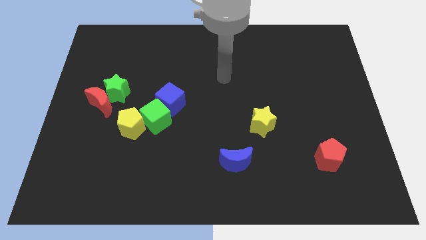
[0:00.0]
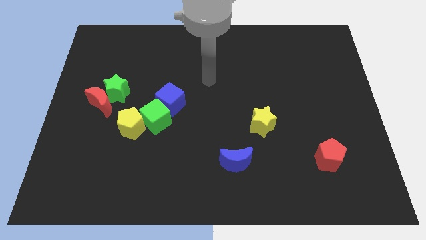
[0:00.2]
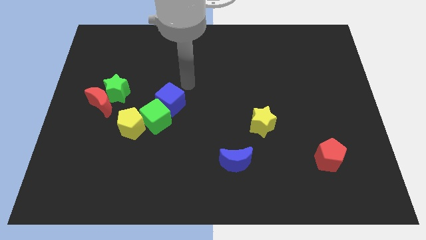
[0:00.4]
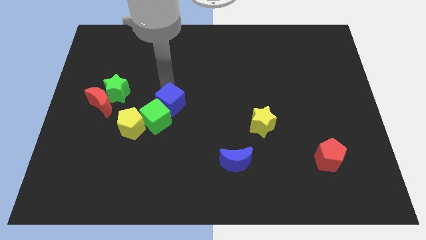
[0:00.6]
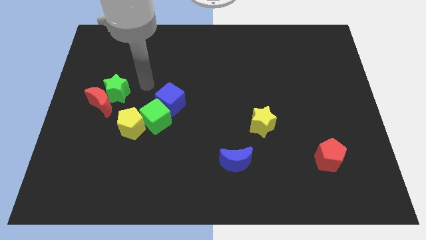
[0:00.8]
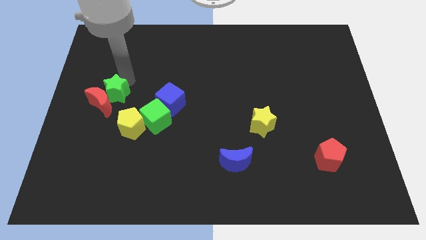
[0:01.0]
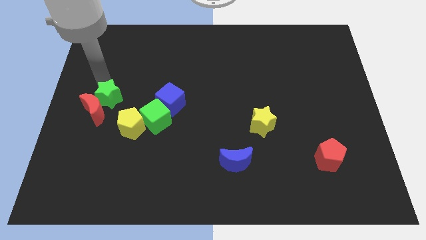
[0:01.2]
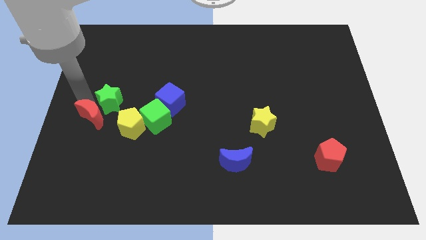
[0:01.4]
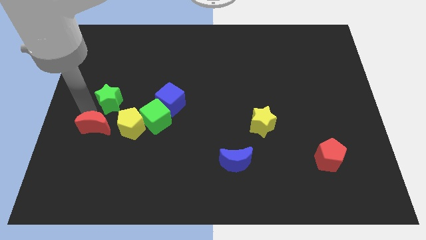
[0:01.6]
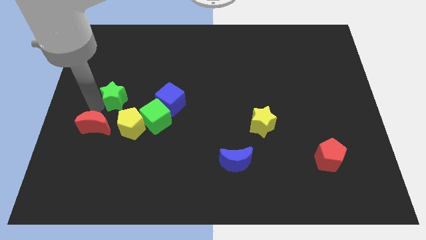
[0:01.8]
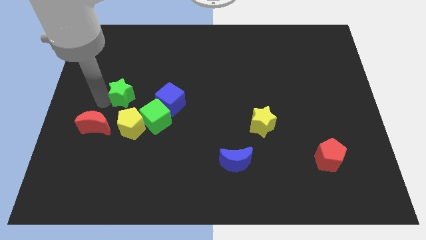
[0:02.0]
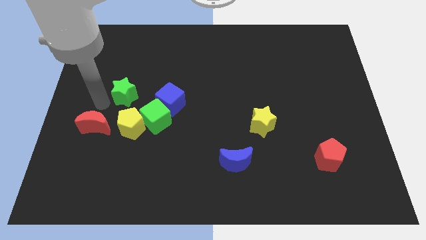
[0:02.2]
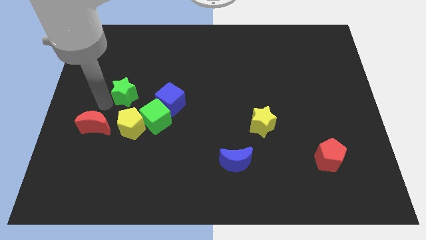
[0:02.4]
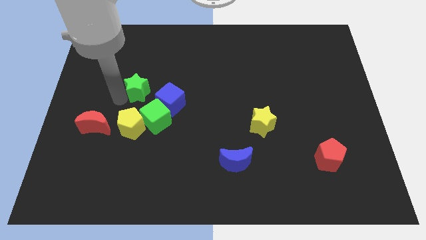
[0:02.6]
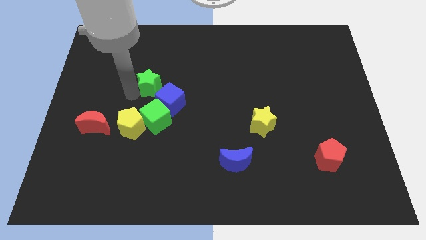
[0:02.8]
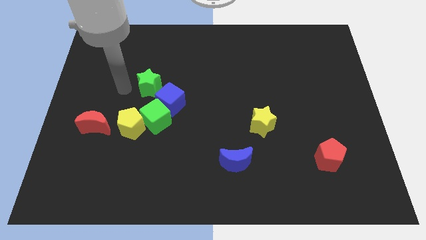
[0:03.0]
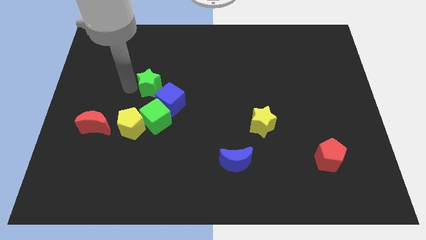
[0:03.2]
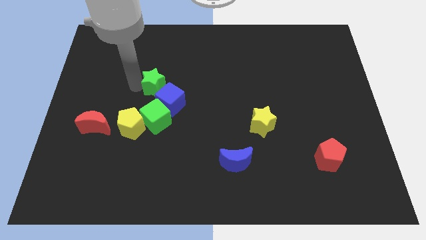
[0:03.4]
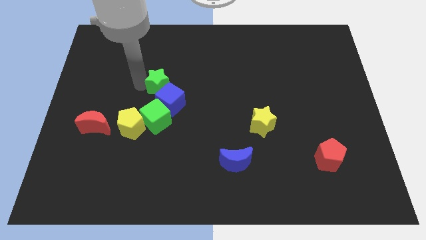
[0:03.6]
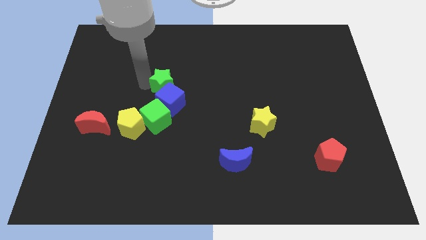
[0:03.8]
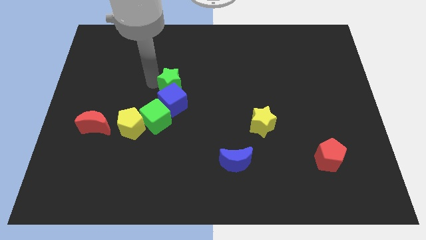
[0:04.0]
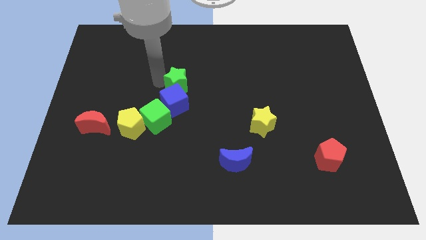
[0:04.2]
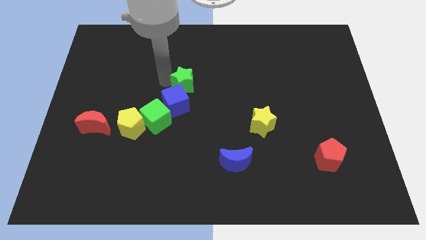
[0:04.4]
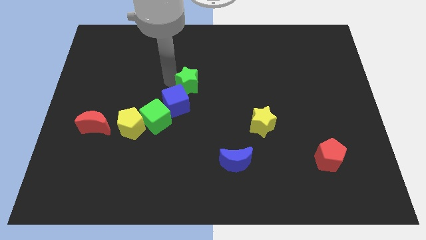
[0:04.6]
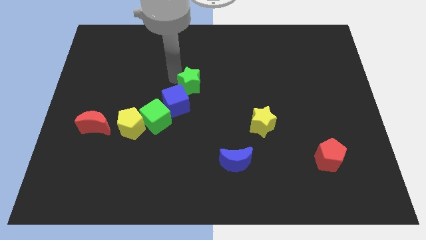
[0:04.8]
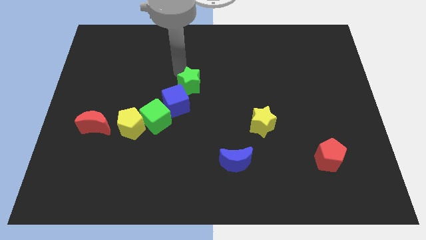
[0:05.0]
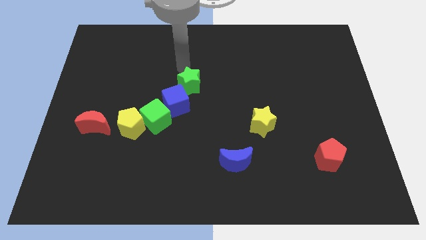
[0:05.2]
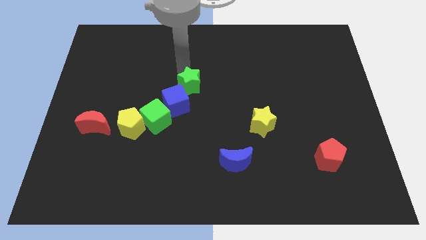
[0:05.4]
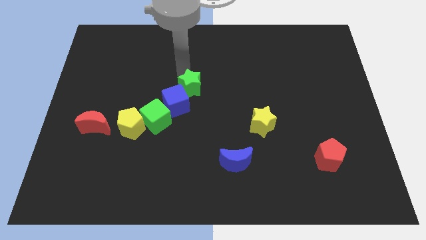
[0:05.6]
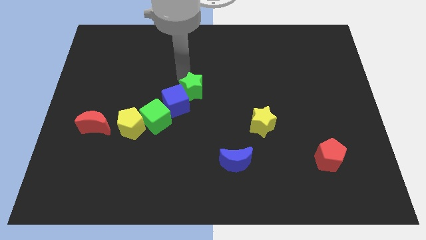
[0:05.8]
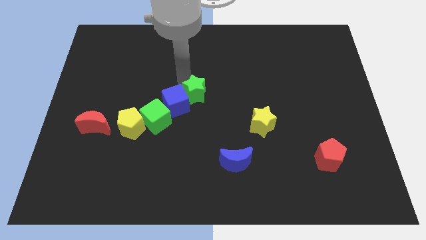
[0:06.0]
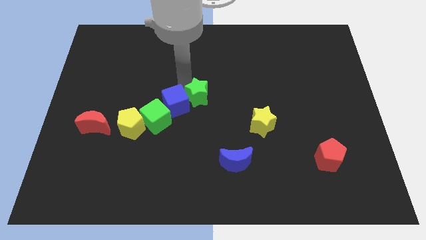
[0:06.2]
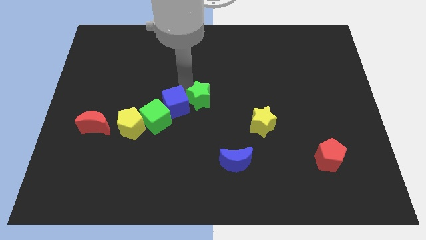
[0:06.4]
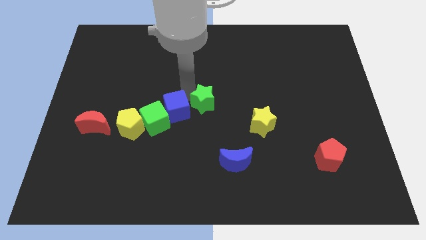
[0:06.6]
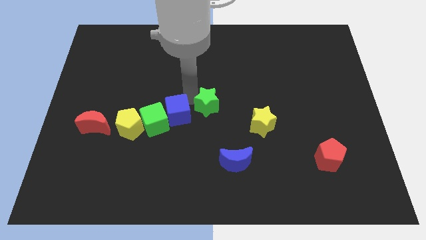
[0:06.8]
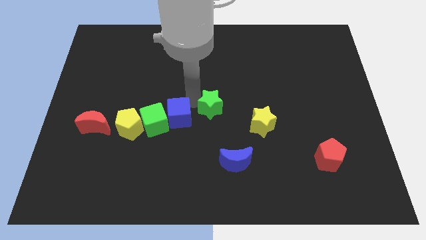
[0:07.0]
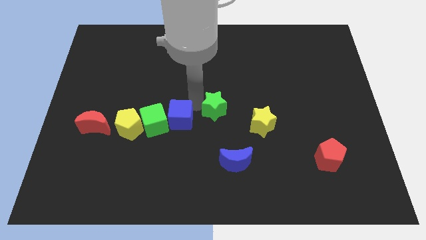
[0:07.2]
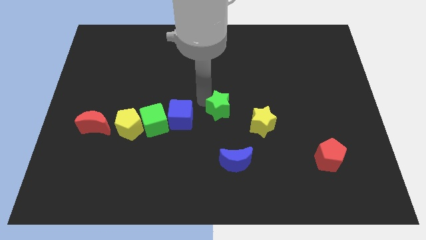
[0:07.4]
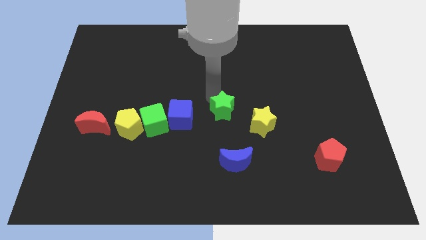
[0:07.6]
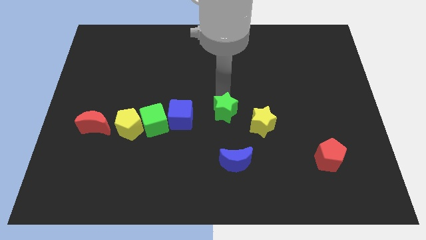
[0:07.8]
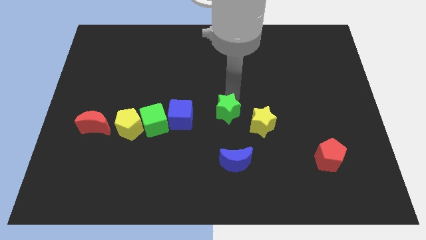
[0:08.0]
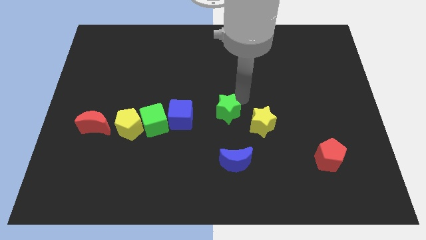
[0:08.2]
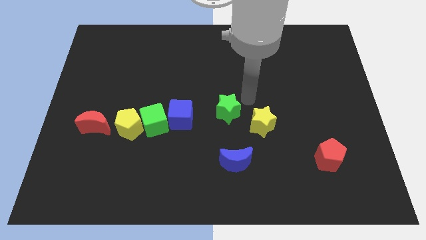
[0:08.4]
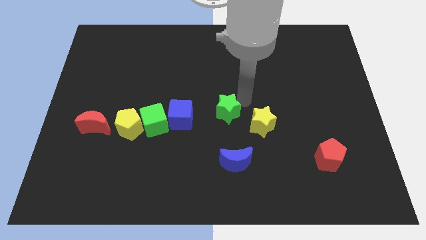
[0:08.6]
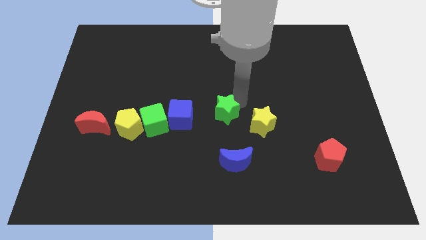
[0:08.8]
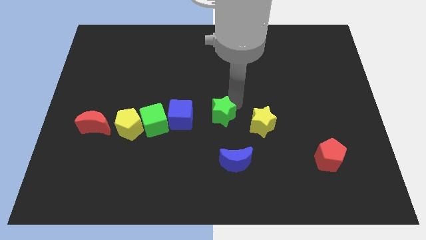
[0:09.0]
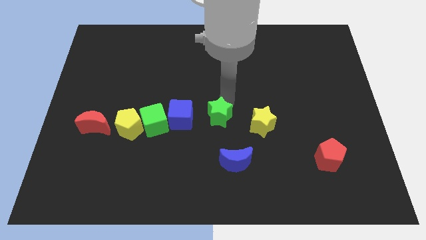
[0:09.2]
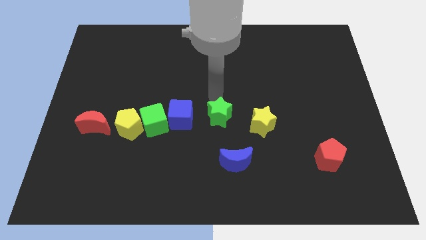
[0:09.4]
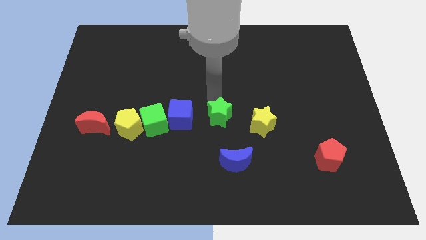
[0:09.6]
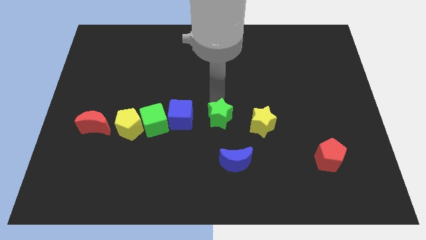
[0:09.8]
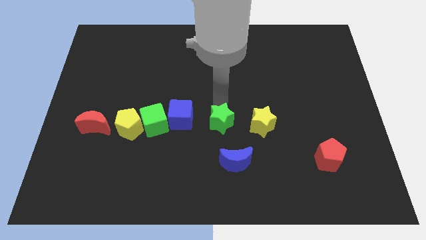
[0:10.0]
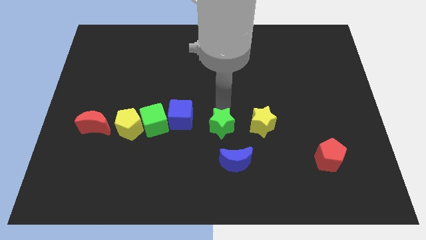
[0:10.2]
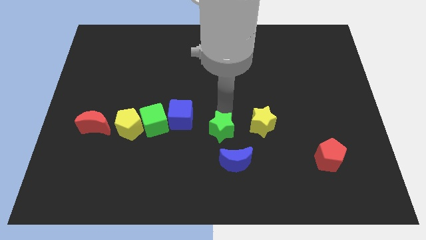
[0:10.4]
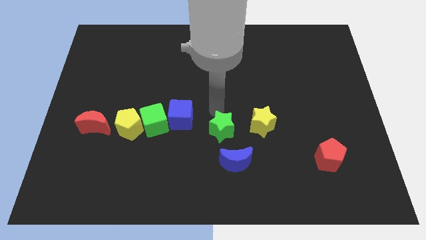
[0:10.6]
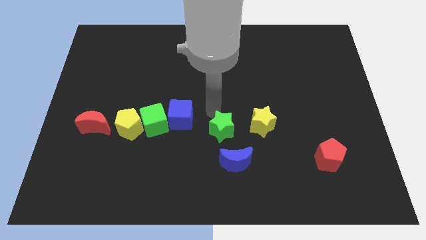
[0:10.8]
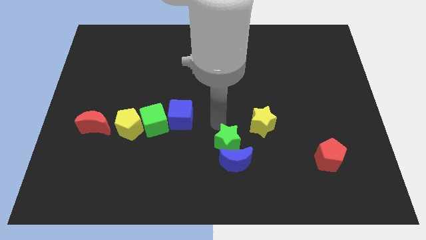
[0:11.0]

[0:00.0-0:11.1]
slide the green star close to the blue moon

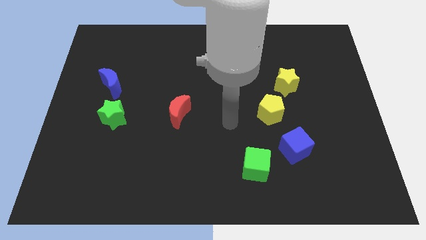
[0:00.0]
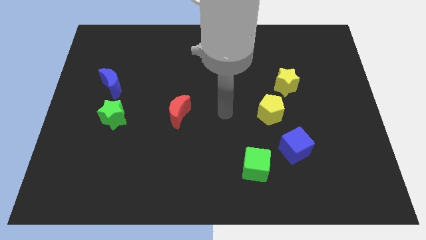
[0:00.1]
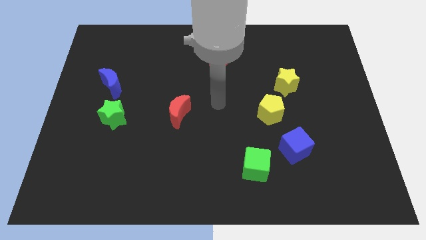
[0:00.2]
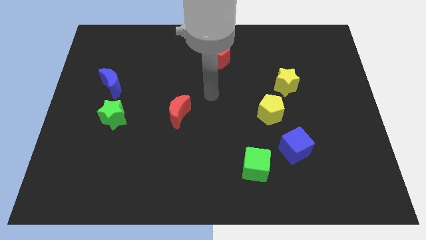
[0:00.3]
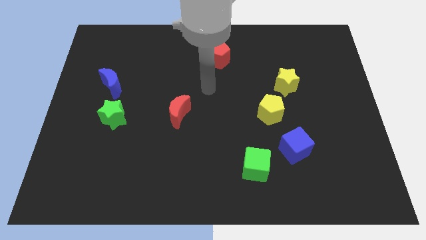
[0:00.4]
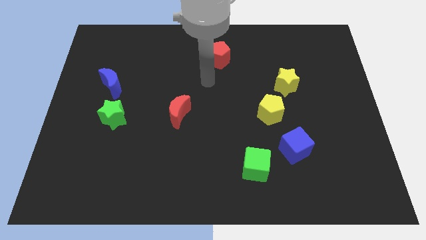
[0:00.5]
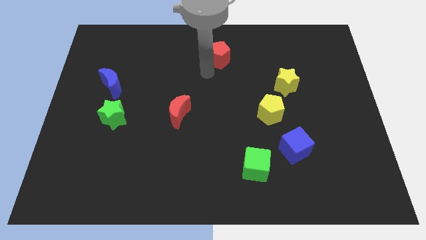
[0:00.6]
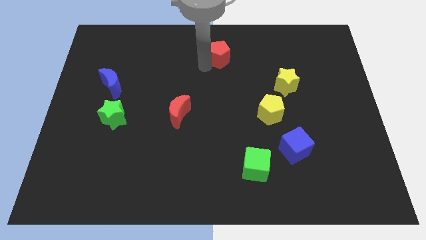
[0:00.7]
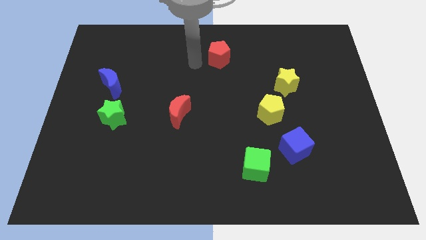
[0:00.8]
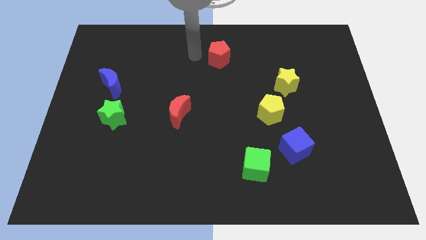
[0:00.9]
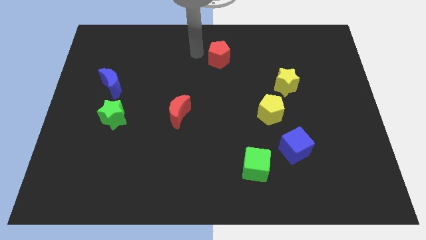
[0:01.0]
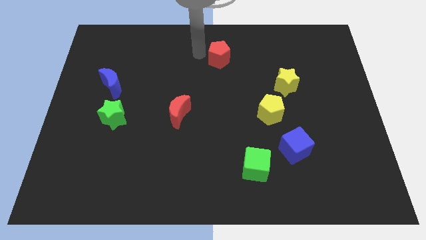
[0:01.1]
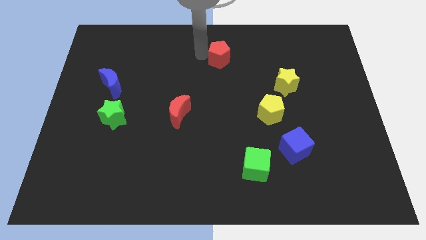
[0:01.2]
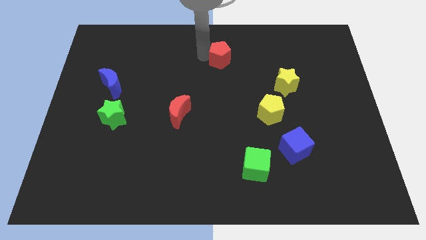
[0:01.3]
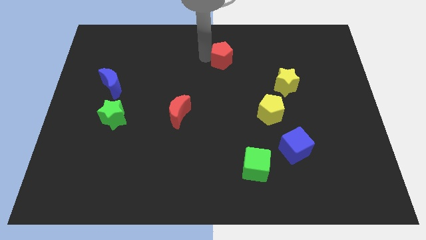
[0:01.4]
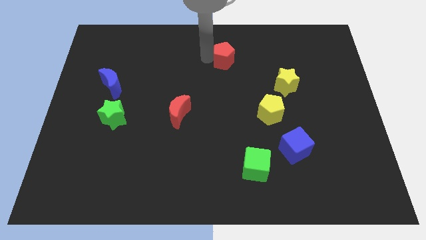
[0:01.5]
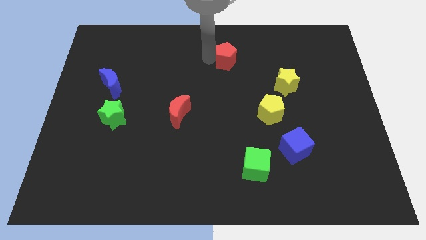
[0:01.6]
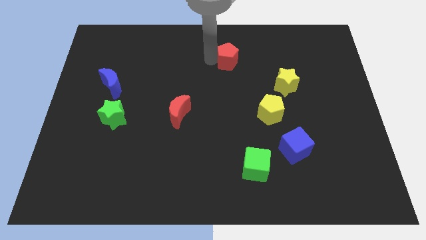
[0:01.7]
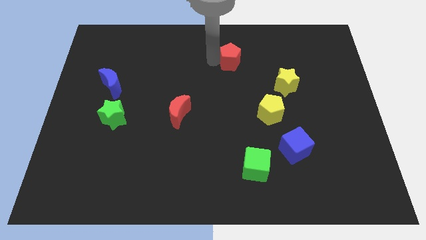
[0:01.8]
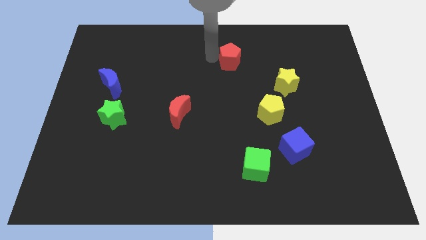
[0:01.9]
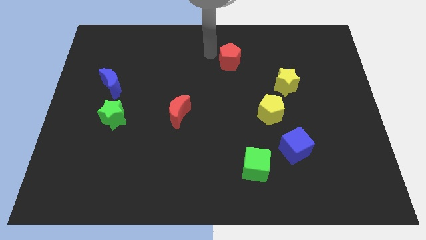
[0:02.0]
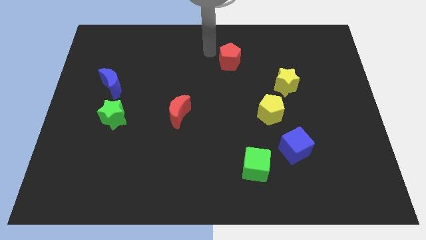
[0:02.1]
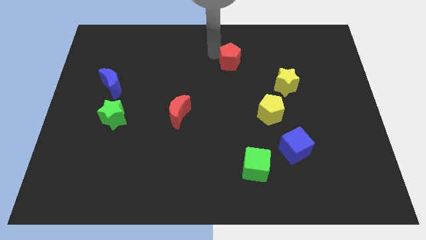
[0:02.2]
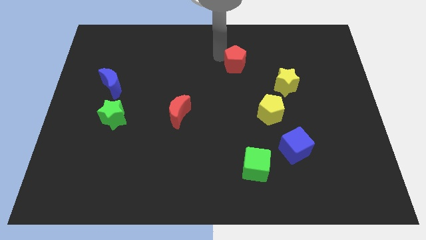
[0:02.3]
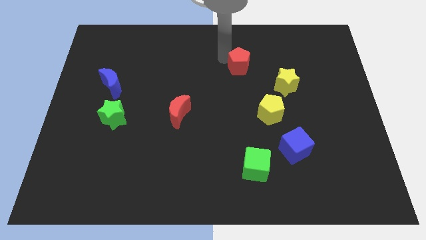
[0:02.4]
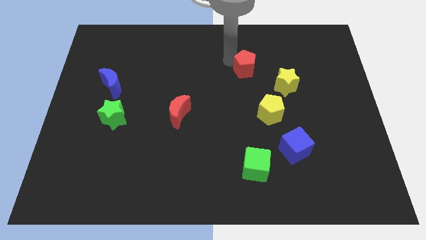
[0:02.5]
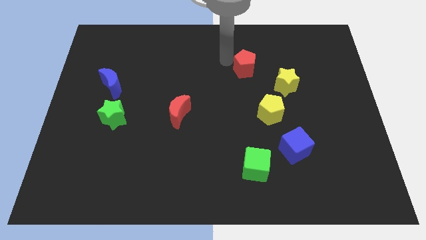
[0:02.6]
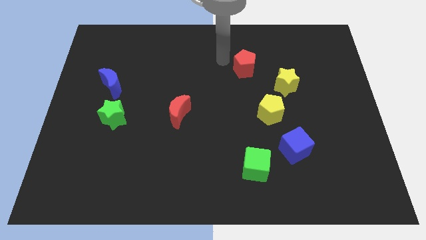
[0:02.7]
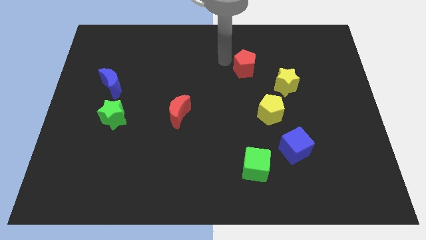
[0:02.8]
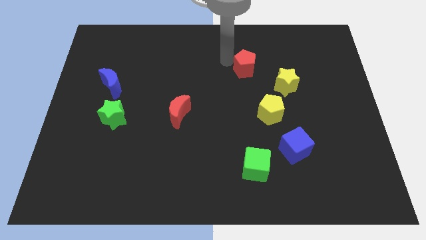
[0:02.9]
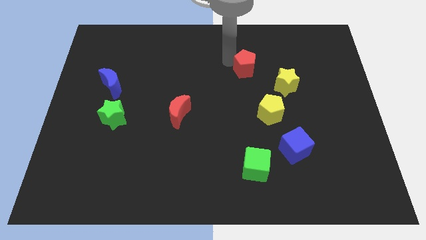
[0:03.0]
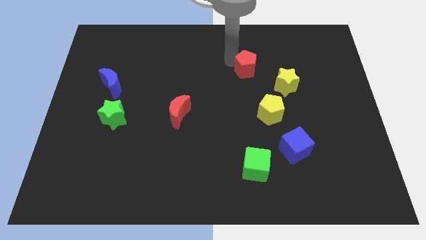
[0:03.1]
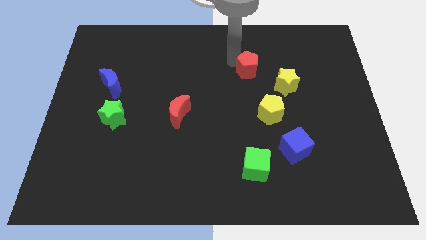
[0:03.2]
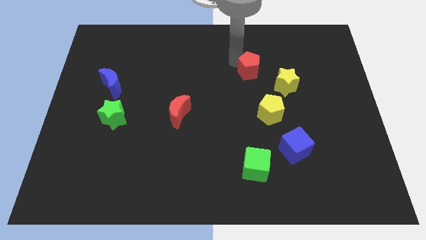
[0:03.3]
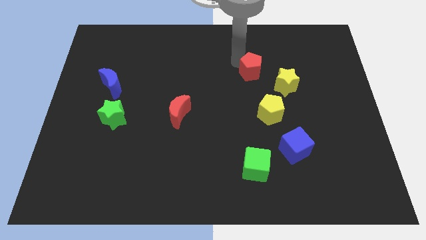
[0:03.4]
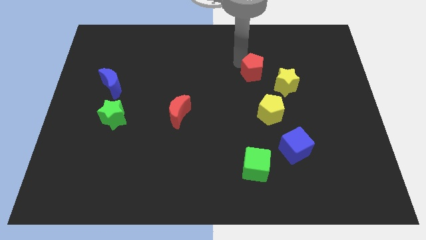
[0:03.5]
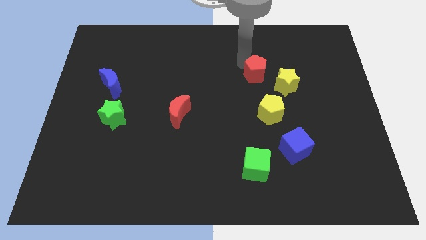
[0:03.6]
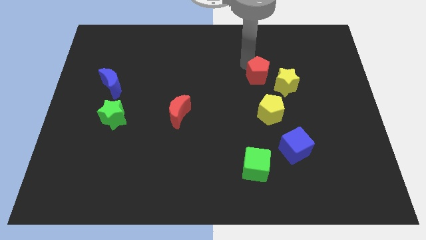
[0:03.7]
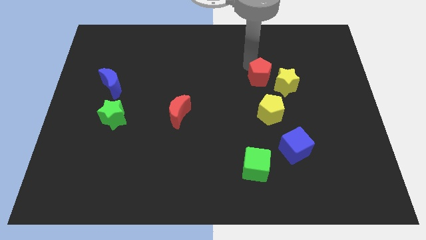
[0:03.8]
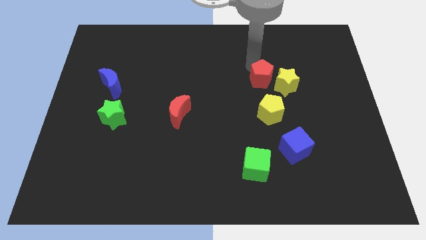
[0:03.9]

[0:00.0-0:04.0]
put the red pentagon towards the yellow star
